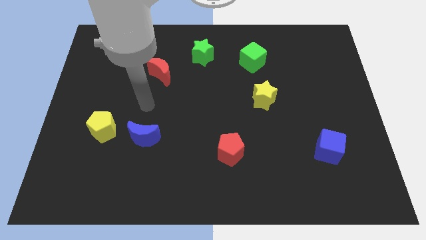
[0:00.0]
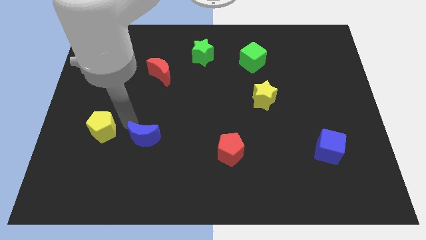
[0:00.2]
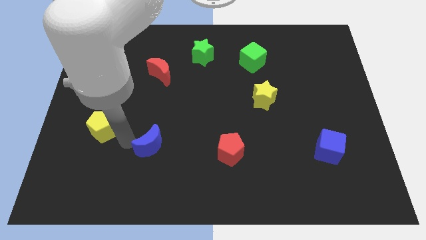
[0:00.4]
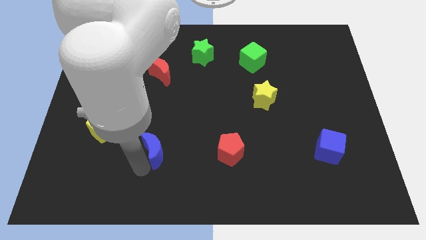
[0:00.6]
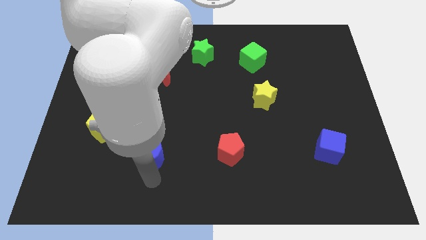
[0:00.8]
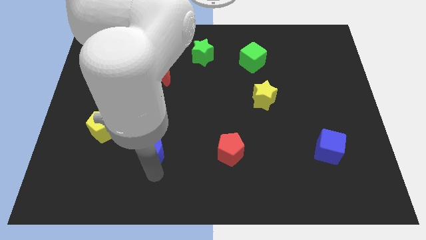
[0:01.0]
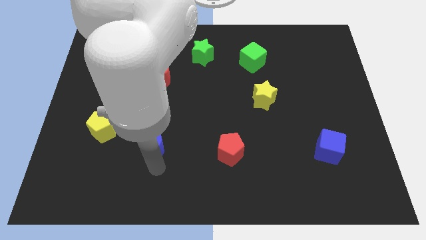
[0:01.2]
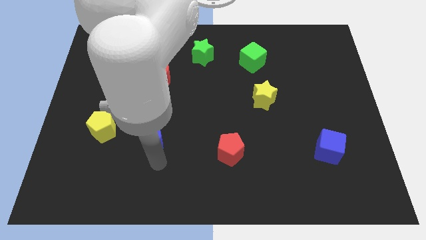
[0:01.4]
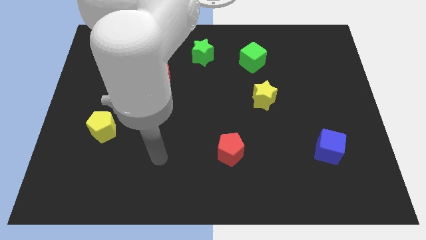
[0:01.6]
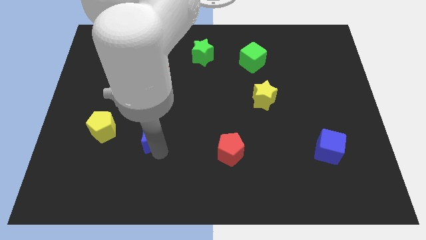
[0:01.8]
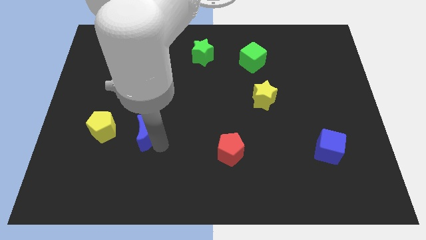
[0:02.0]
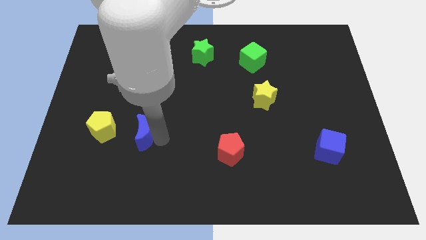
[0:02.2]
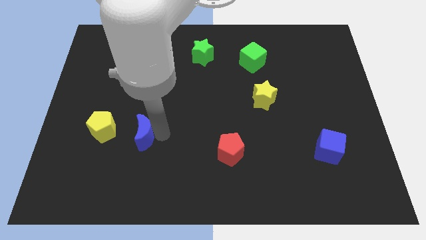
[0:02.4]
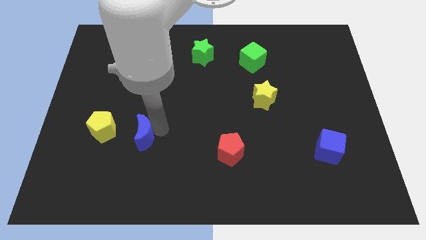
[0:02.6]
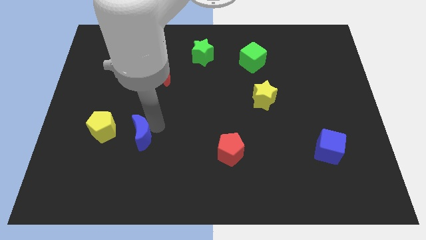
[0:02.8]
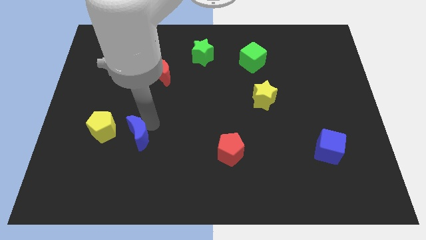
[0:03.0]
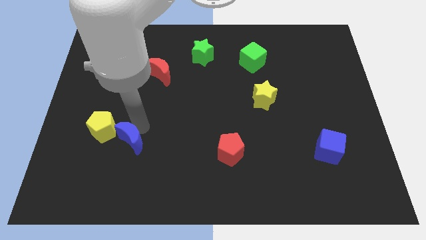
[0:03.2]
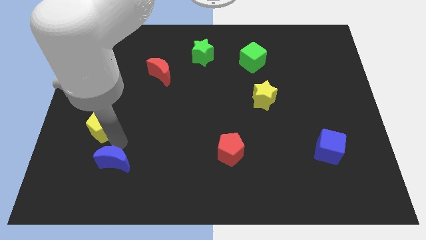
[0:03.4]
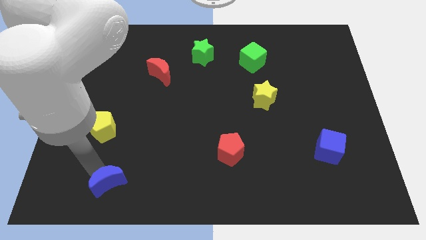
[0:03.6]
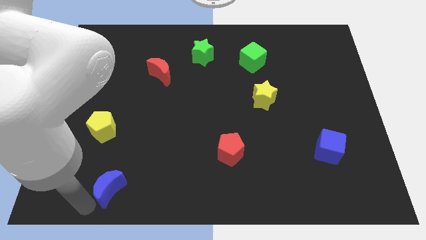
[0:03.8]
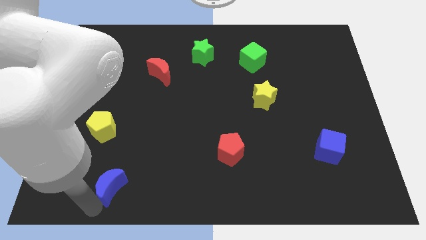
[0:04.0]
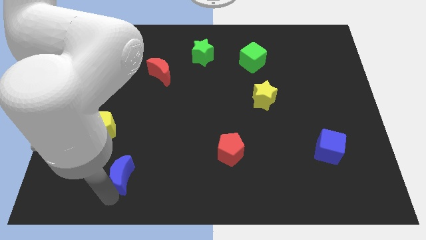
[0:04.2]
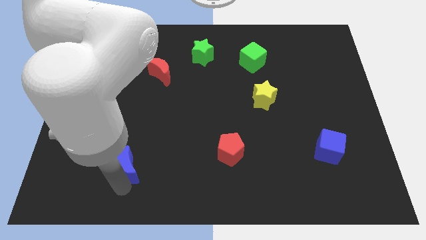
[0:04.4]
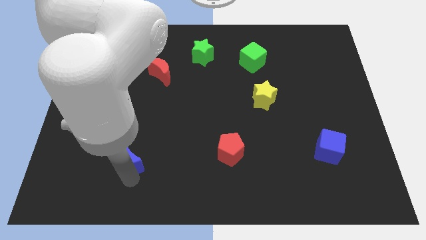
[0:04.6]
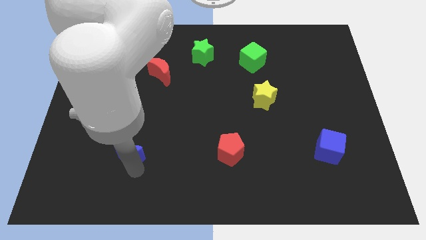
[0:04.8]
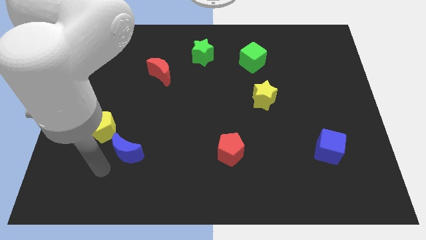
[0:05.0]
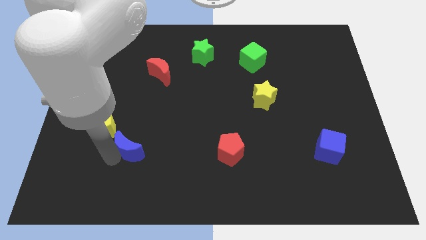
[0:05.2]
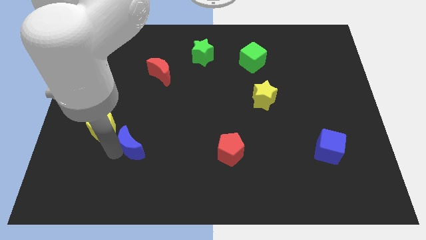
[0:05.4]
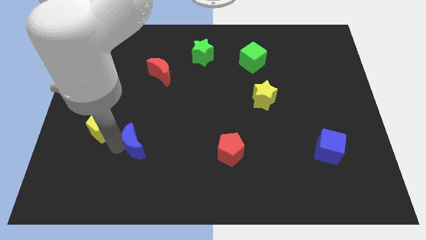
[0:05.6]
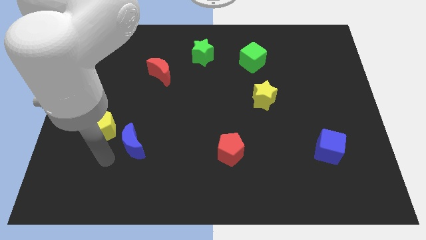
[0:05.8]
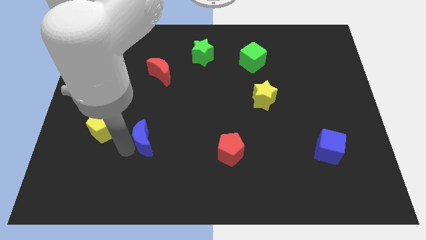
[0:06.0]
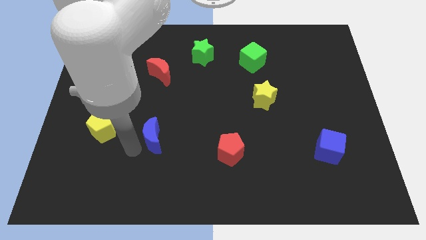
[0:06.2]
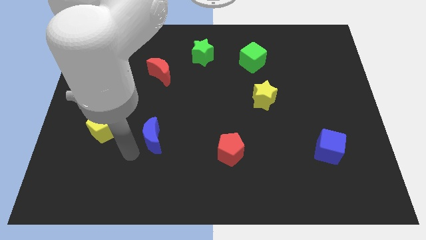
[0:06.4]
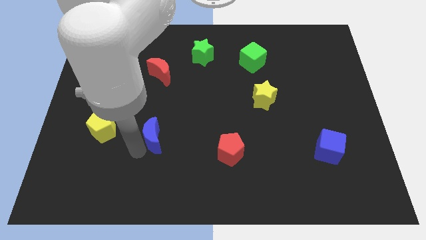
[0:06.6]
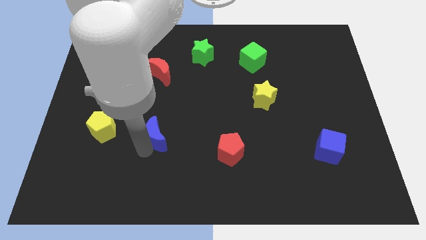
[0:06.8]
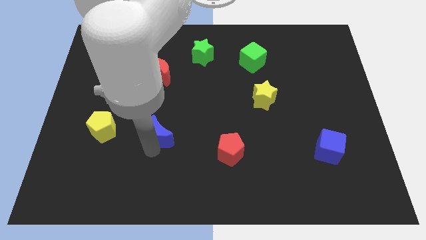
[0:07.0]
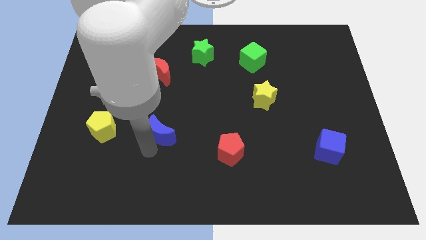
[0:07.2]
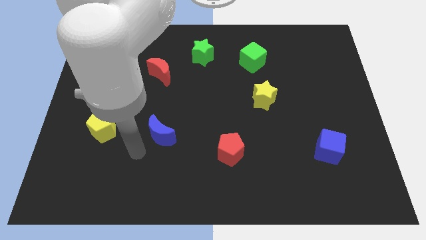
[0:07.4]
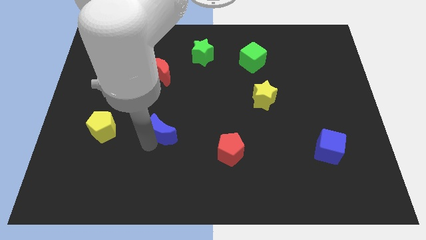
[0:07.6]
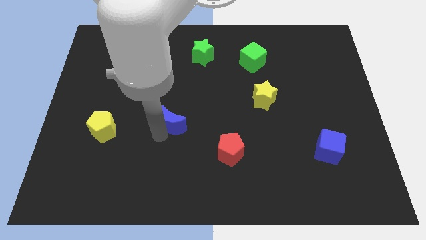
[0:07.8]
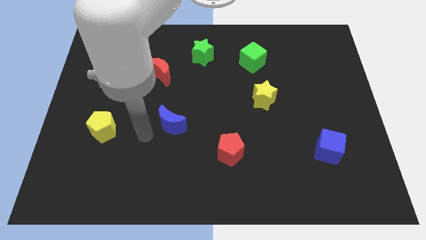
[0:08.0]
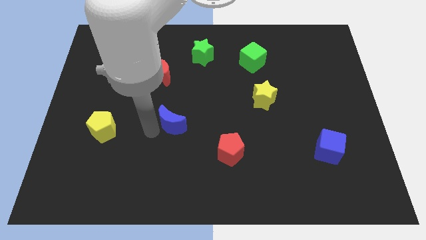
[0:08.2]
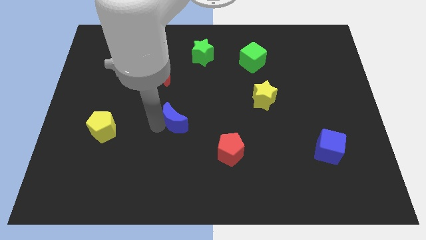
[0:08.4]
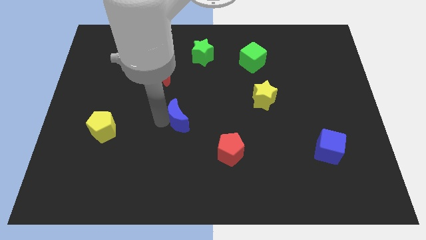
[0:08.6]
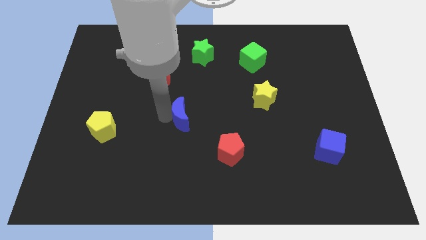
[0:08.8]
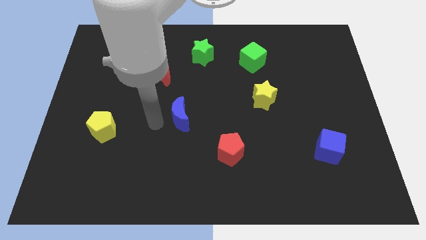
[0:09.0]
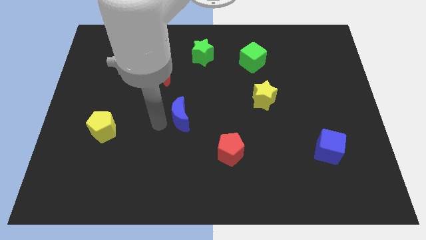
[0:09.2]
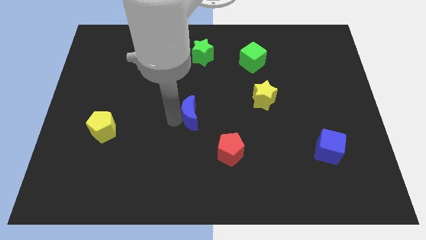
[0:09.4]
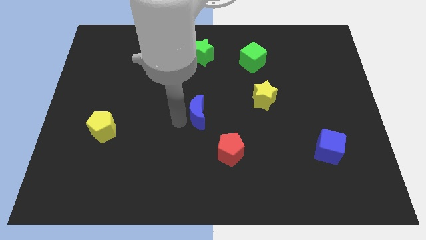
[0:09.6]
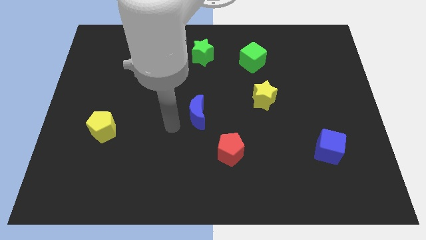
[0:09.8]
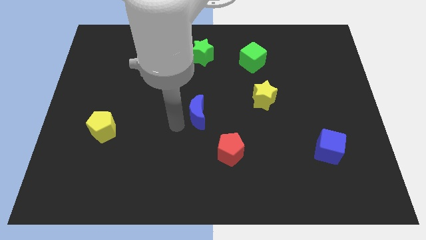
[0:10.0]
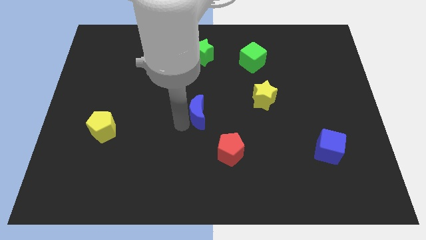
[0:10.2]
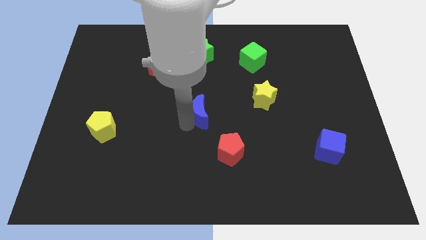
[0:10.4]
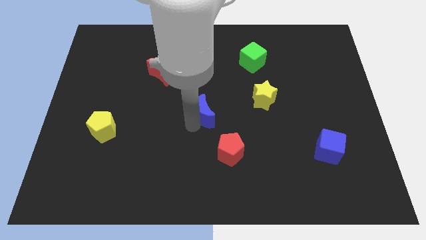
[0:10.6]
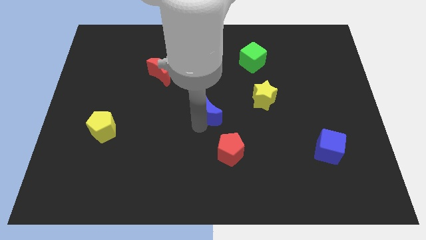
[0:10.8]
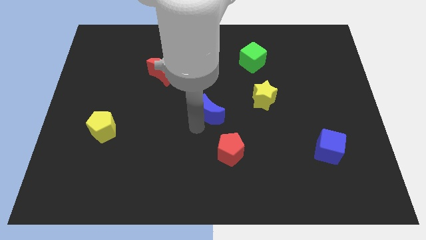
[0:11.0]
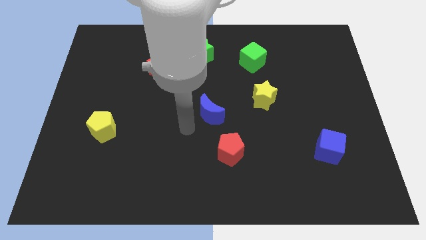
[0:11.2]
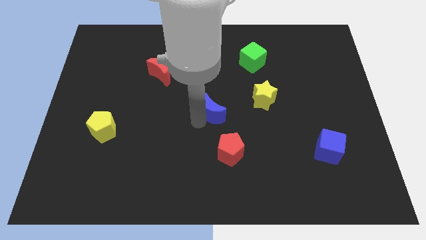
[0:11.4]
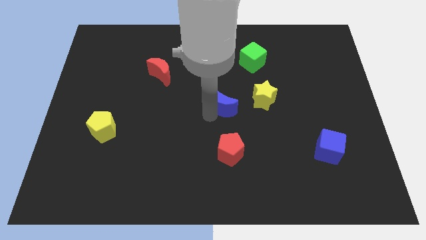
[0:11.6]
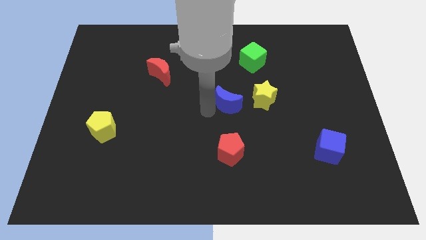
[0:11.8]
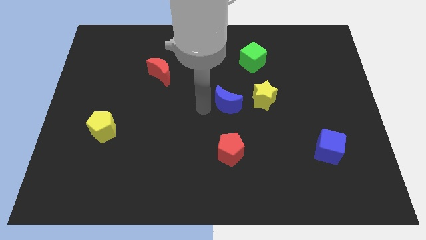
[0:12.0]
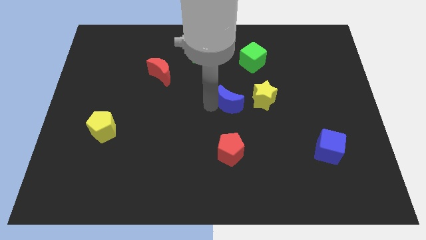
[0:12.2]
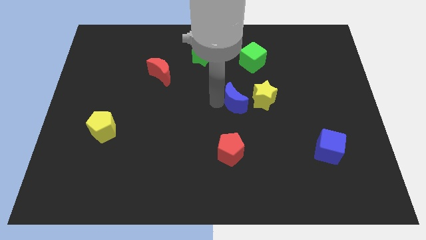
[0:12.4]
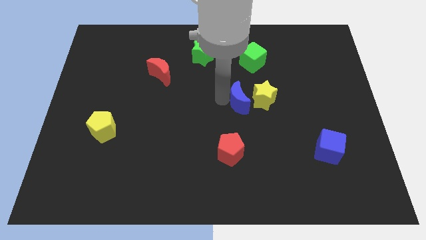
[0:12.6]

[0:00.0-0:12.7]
push the blue moon to the yellow star
